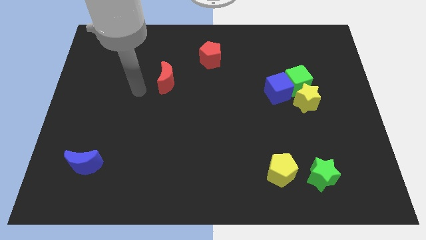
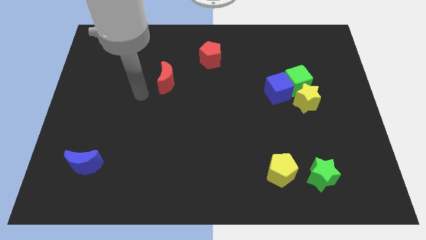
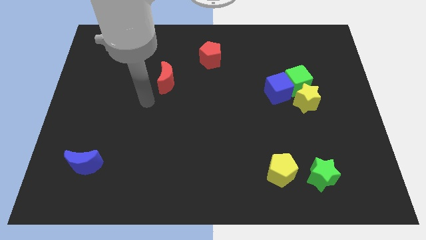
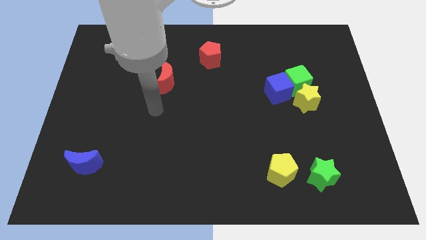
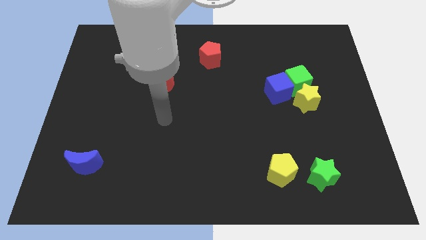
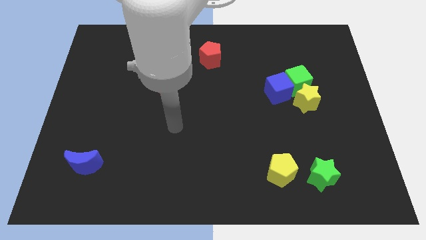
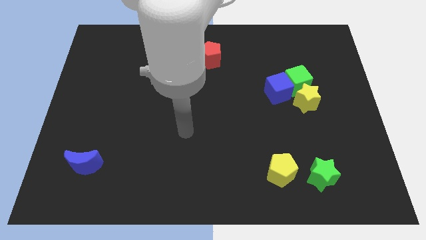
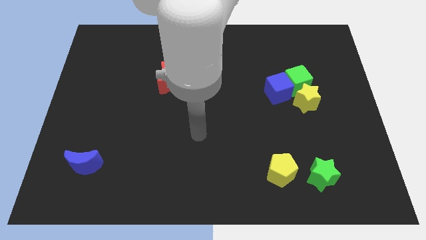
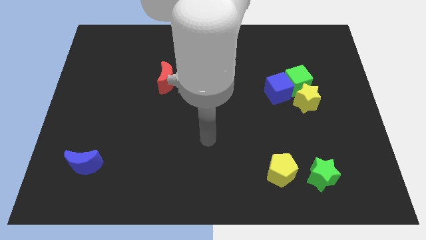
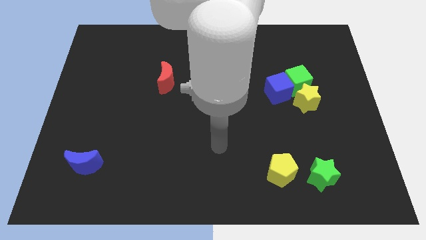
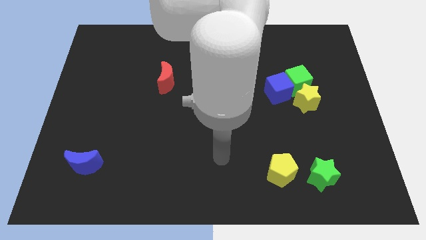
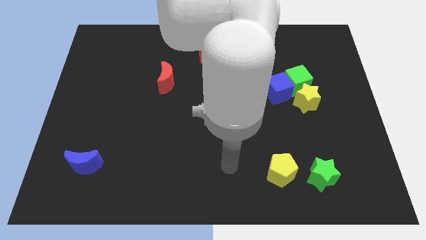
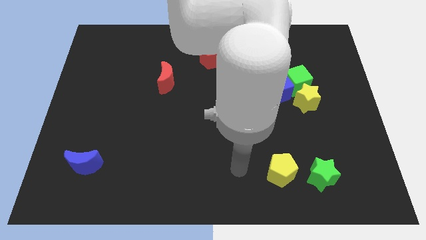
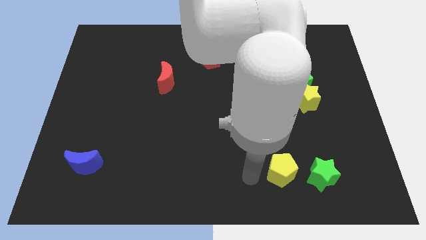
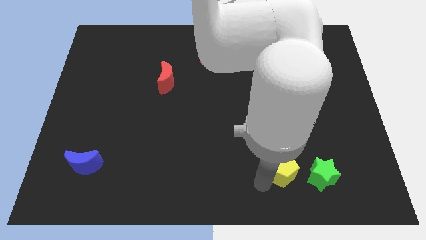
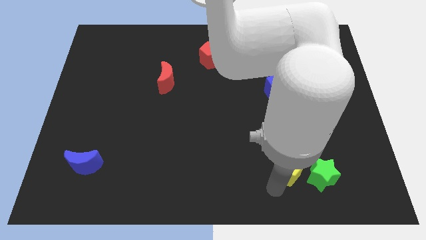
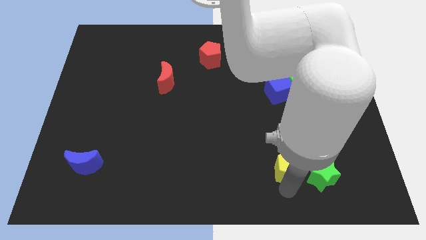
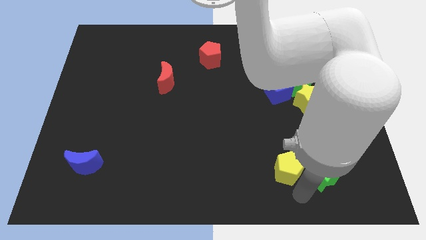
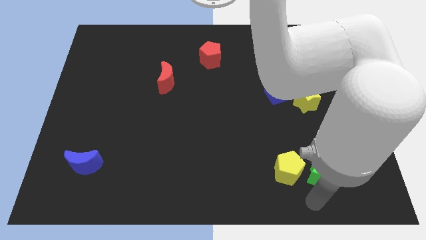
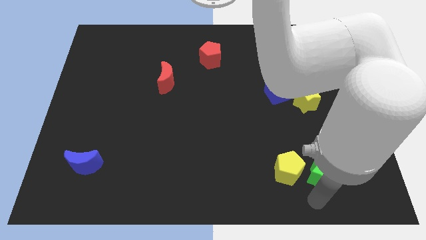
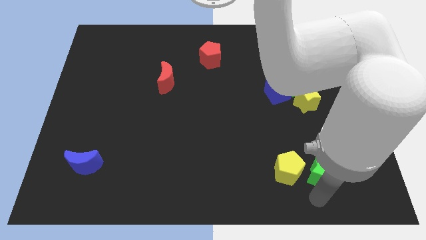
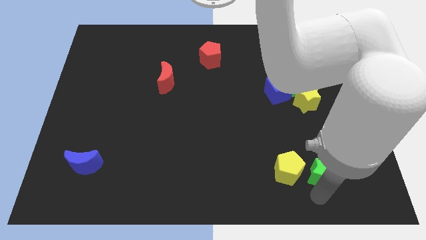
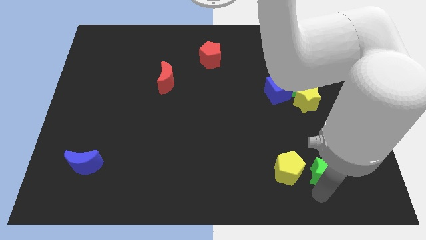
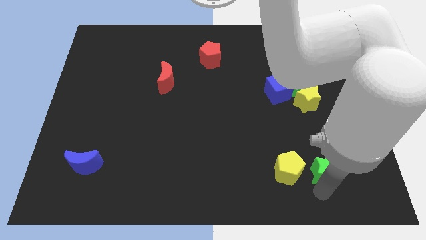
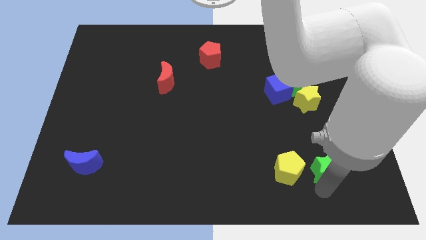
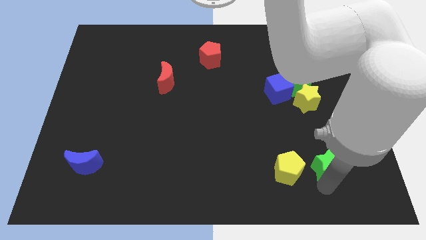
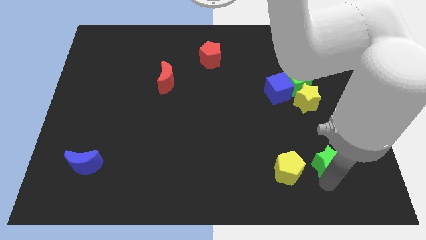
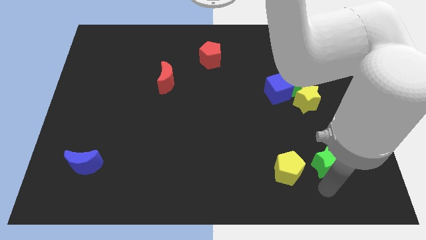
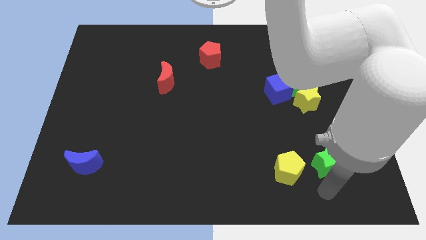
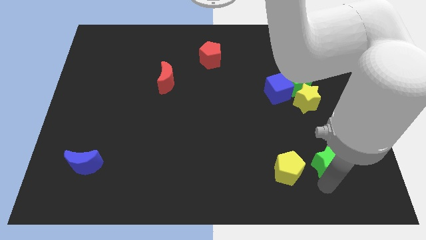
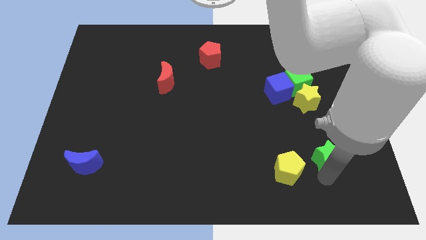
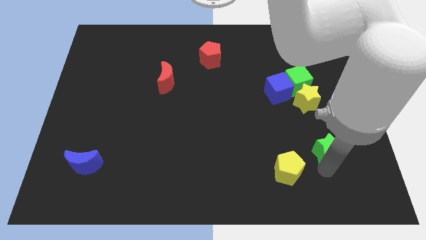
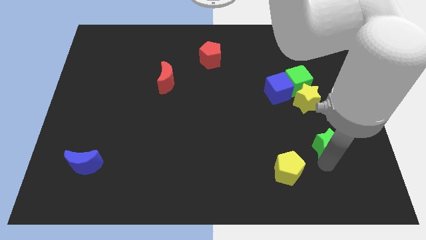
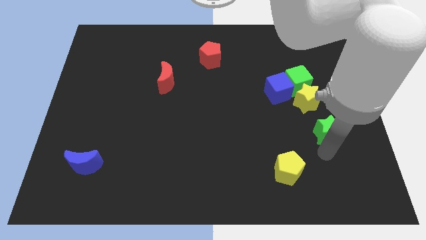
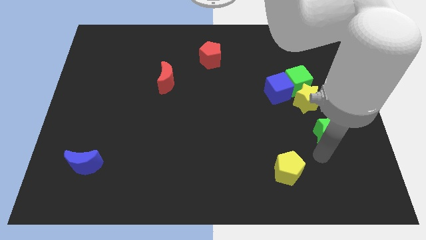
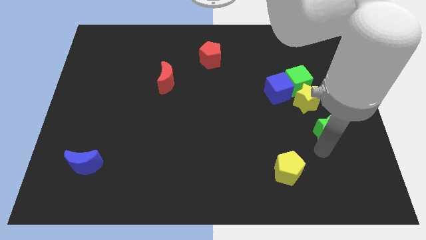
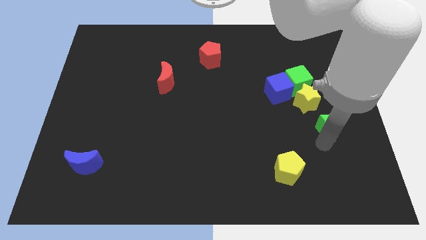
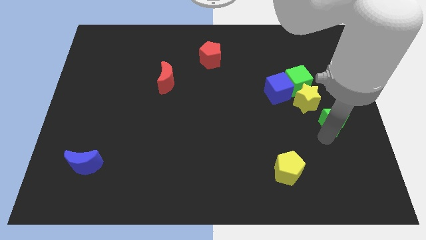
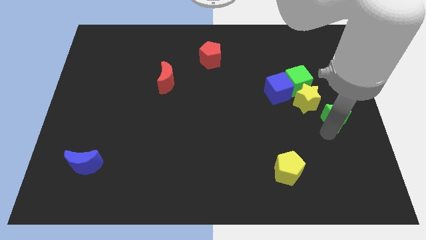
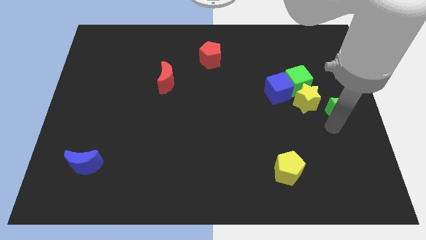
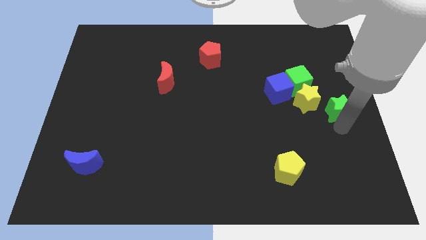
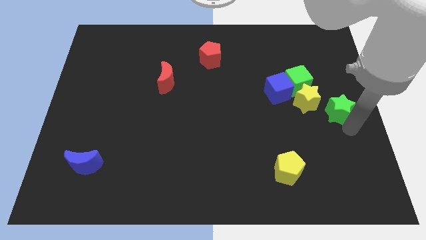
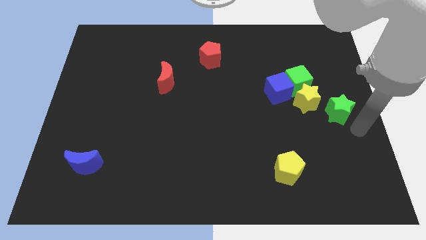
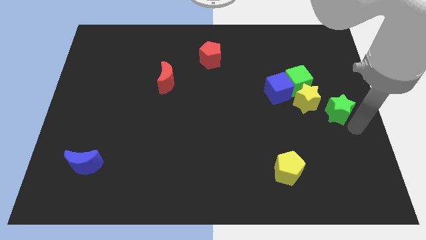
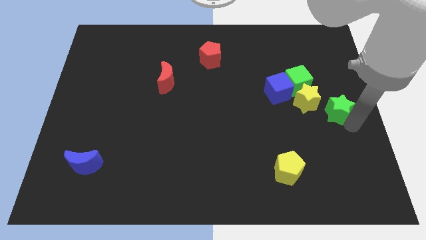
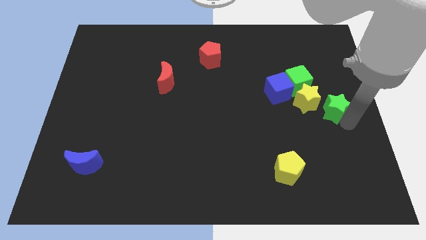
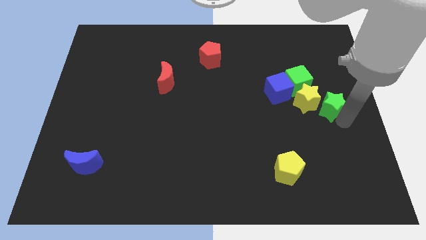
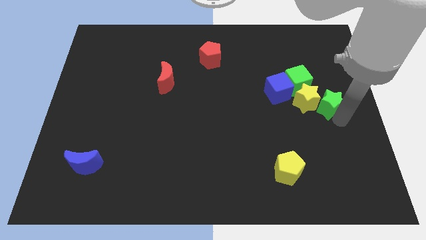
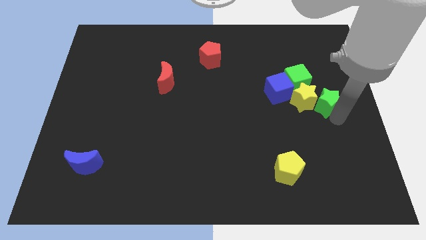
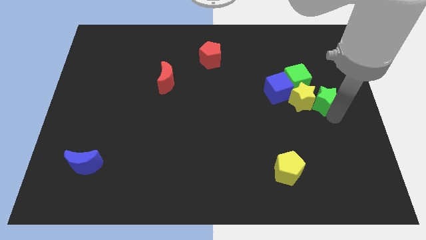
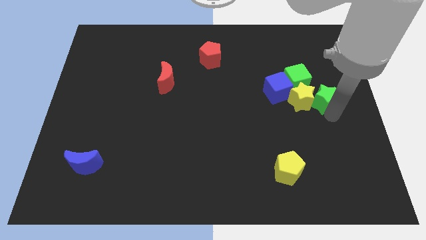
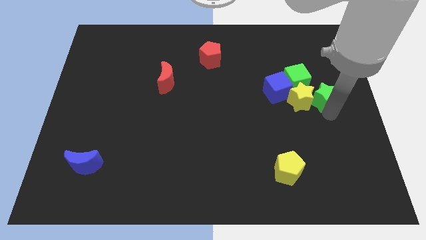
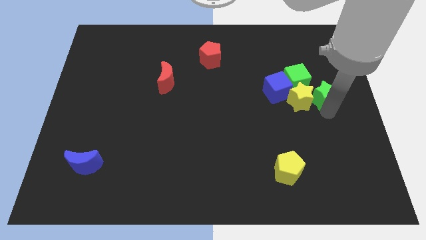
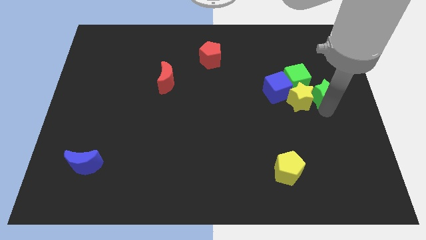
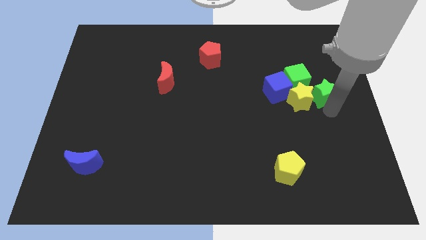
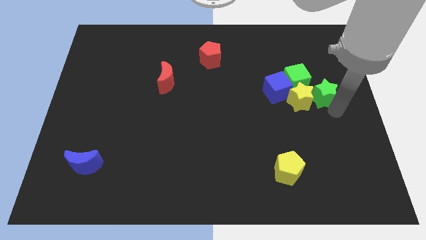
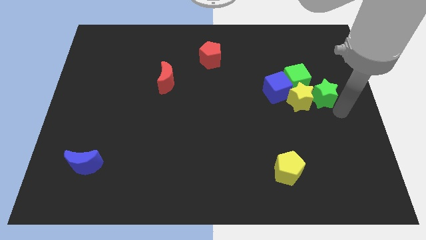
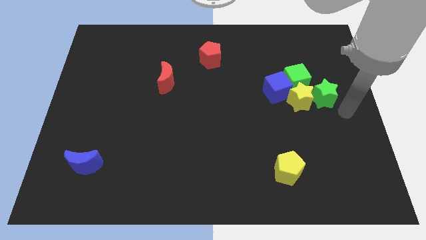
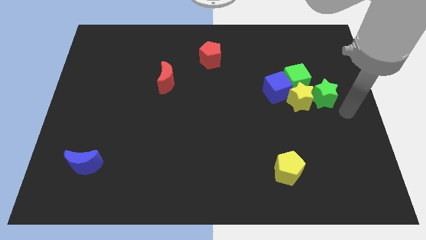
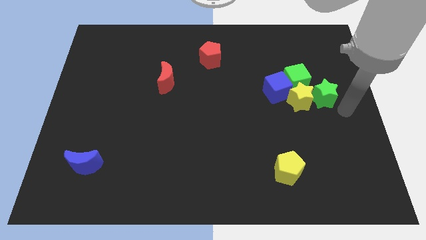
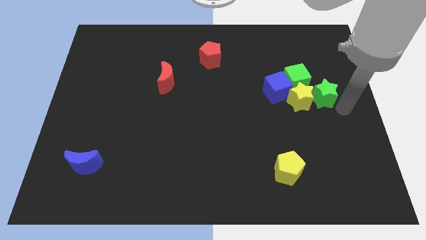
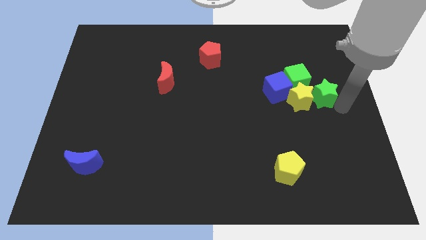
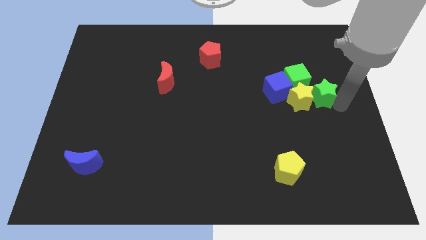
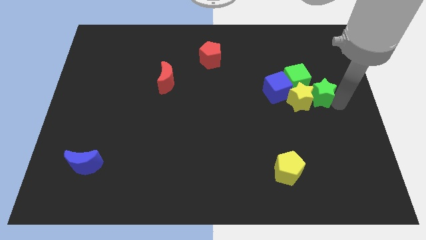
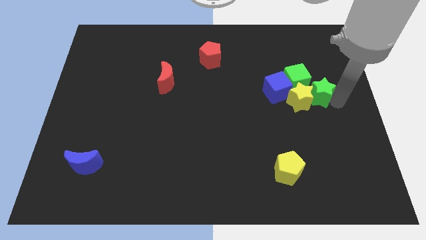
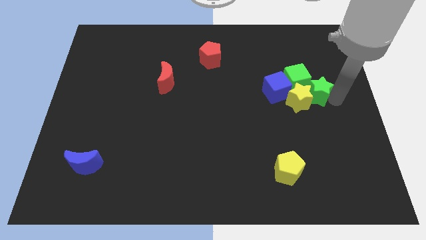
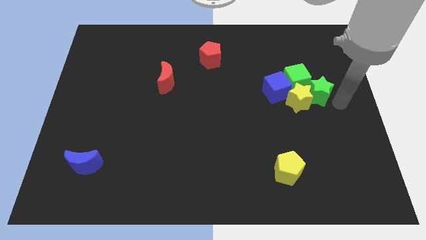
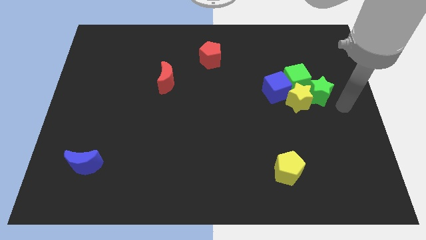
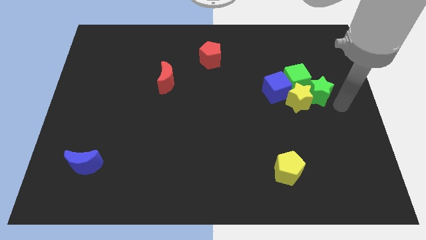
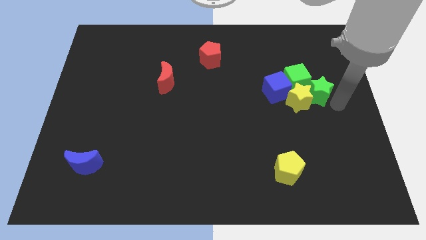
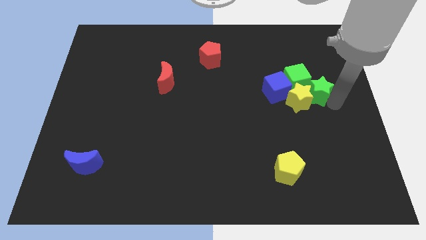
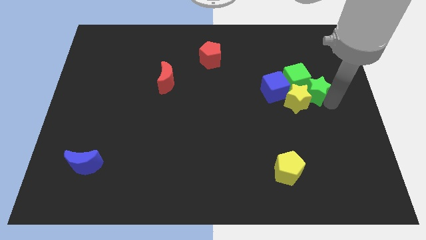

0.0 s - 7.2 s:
move the green star towards the green cube

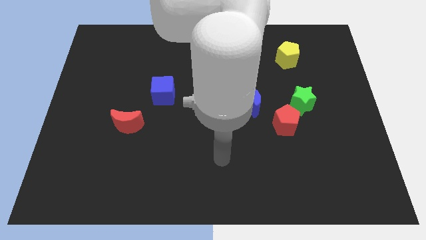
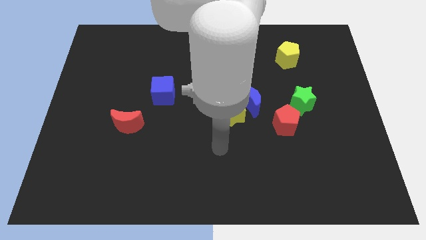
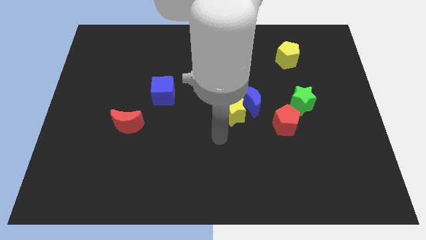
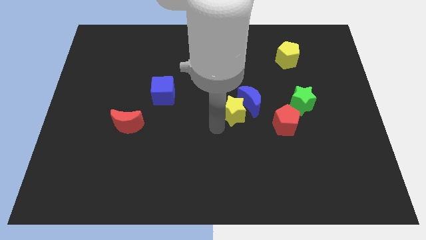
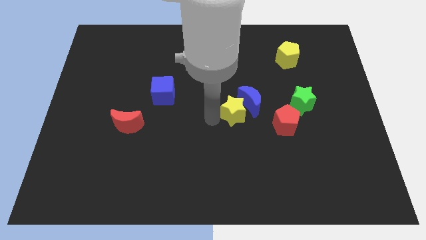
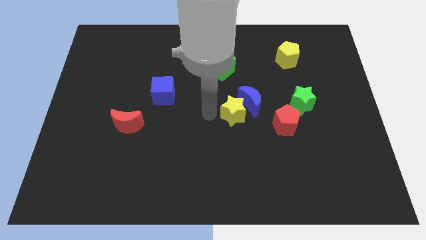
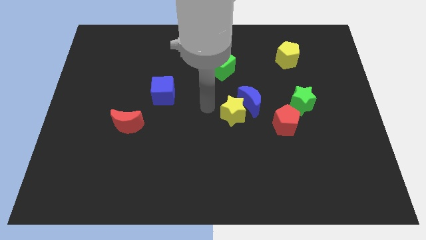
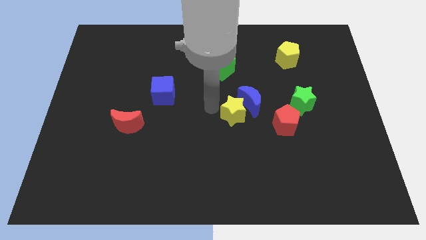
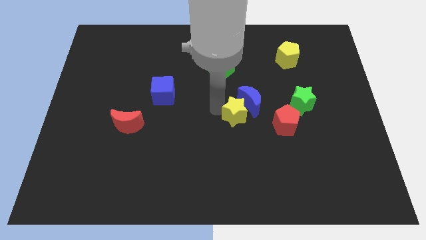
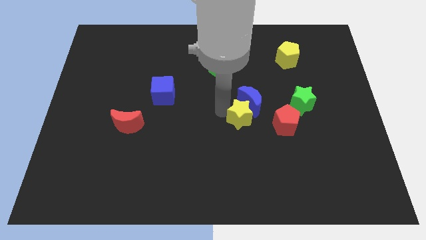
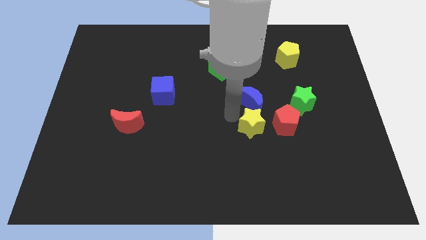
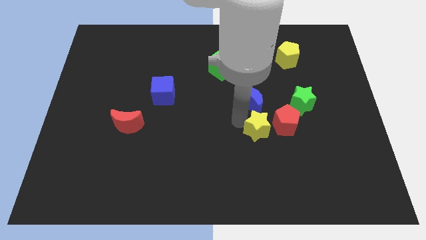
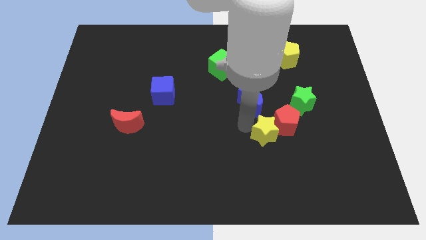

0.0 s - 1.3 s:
slide the yellow star next to the red pentagon
